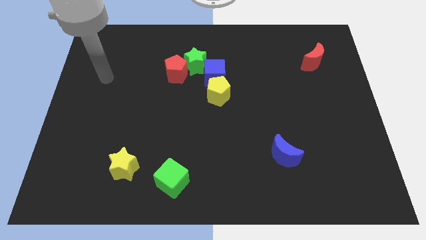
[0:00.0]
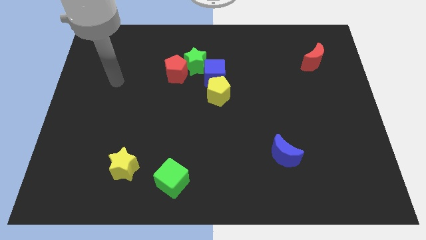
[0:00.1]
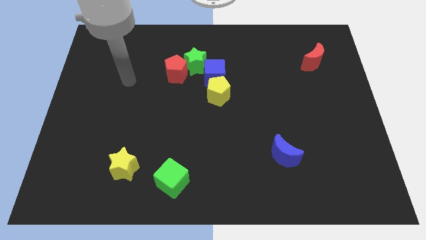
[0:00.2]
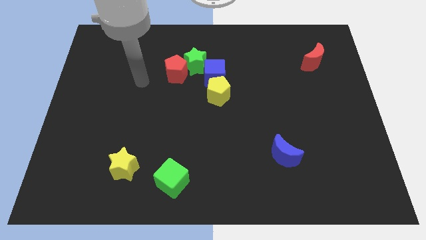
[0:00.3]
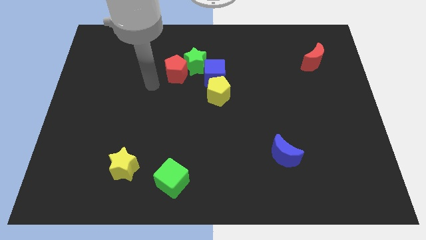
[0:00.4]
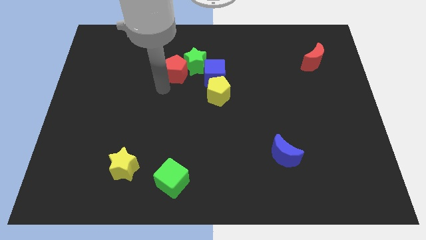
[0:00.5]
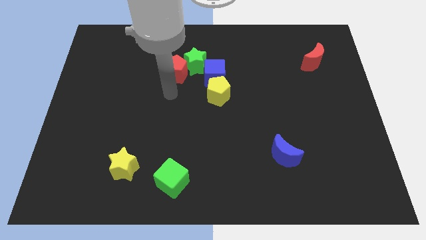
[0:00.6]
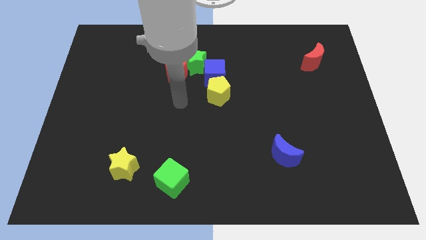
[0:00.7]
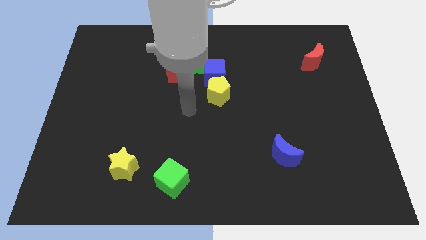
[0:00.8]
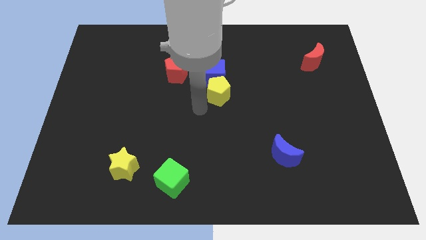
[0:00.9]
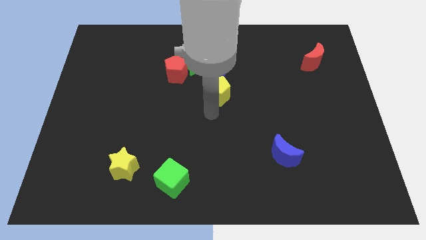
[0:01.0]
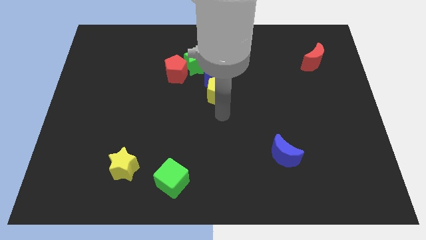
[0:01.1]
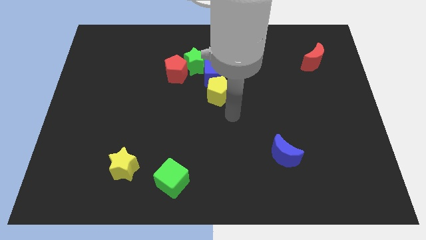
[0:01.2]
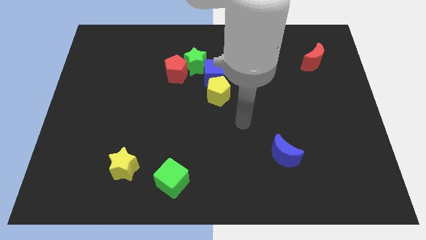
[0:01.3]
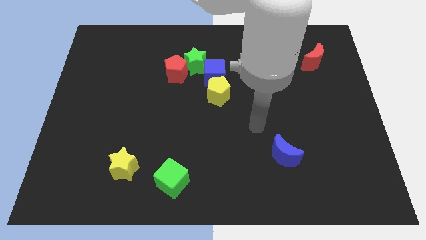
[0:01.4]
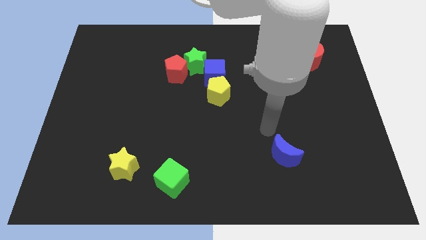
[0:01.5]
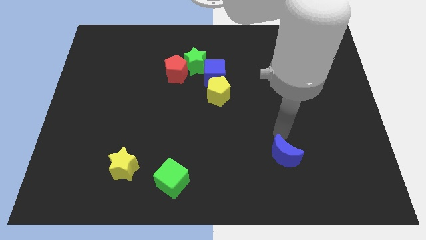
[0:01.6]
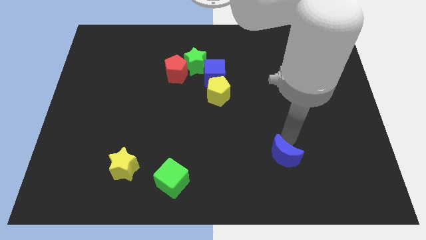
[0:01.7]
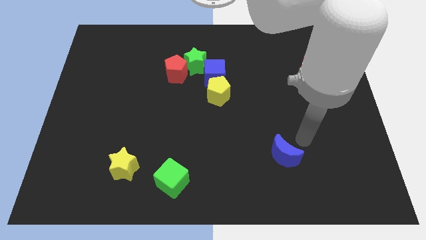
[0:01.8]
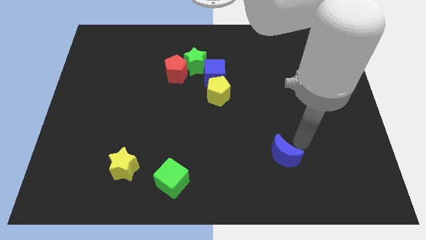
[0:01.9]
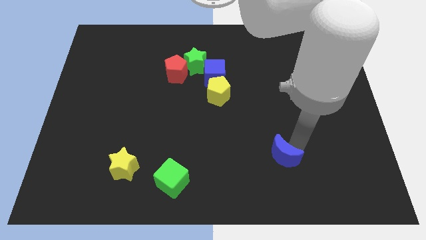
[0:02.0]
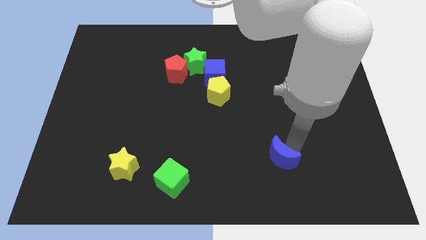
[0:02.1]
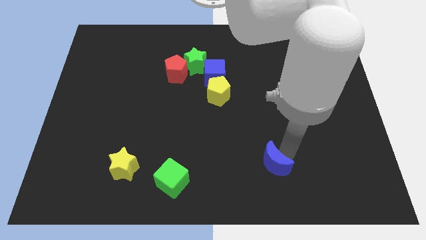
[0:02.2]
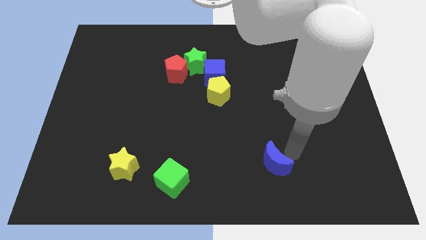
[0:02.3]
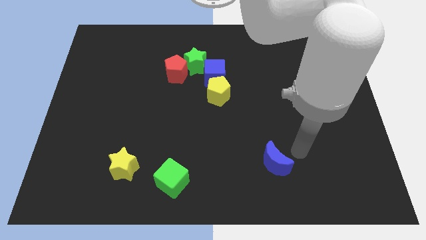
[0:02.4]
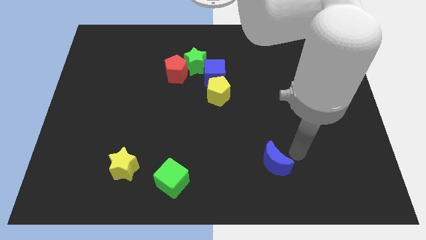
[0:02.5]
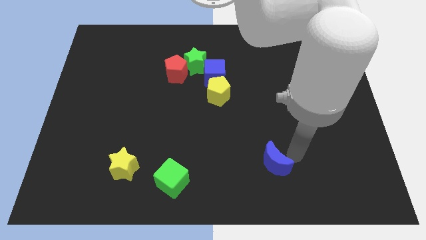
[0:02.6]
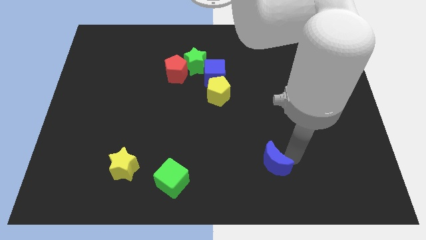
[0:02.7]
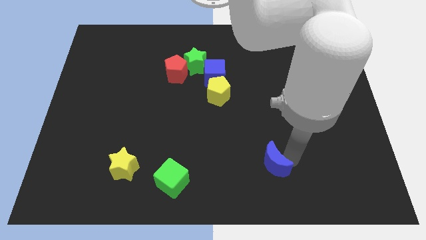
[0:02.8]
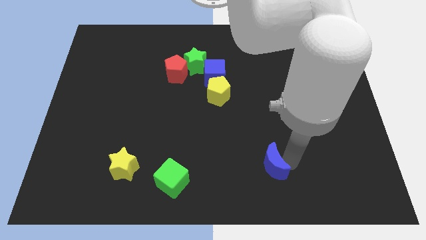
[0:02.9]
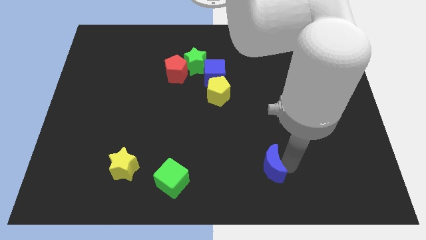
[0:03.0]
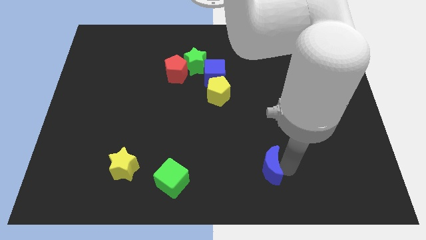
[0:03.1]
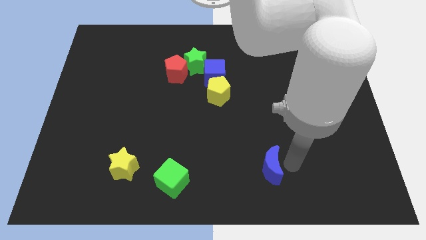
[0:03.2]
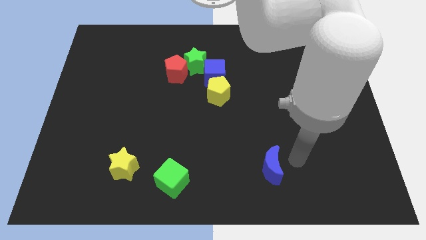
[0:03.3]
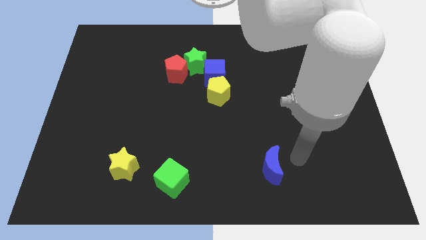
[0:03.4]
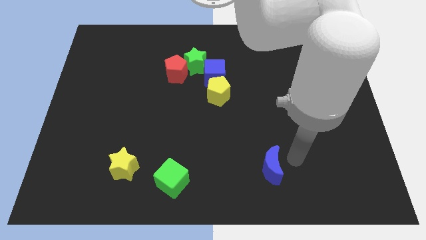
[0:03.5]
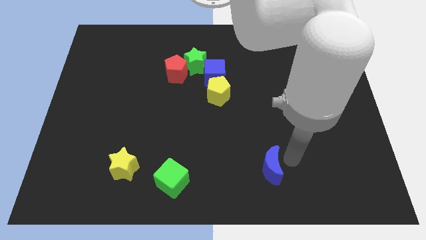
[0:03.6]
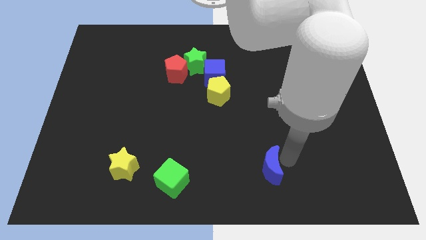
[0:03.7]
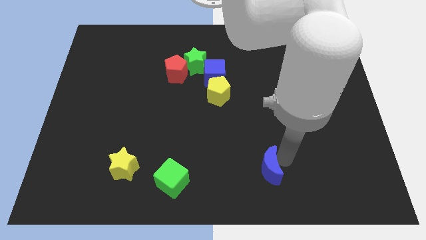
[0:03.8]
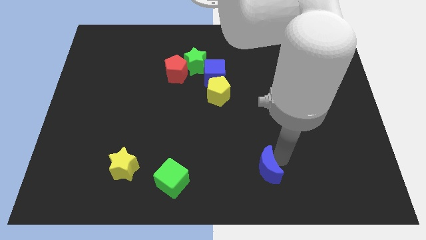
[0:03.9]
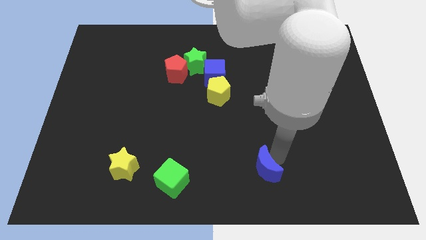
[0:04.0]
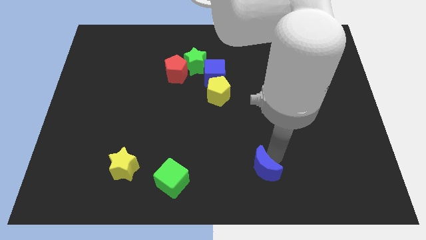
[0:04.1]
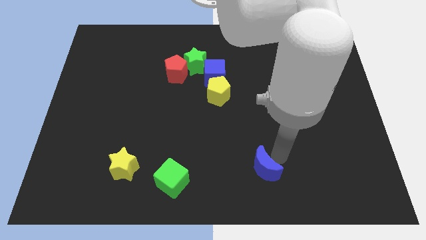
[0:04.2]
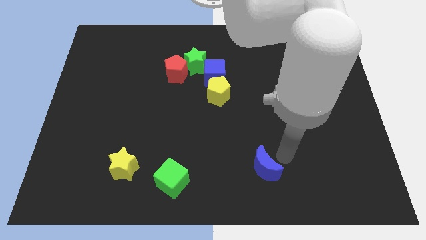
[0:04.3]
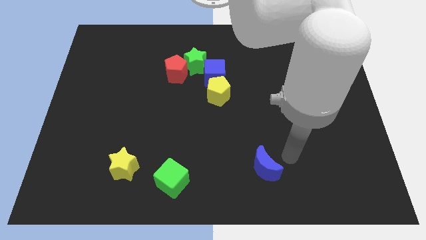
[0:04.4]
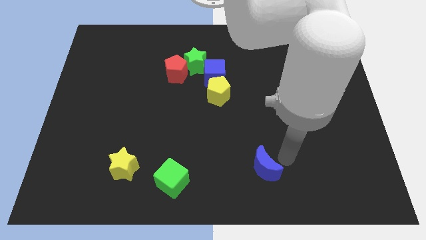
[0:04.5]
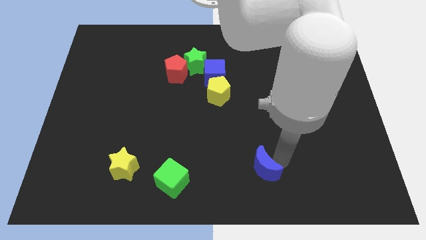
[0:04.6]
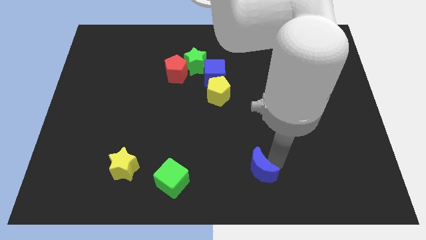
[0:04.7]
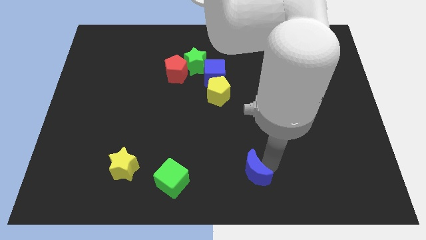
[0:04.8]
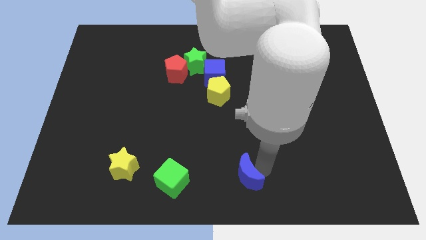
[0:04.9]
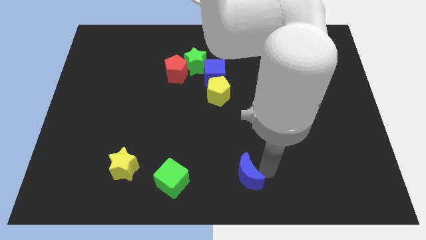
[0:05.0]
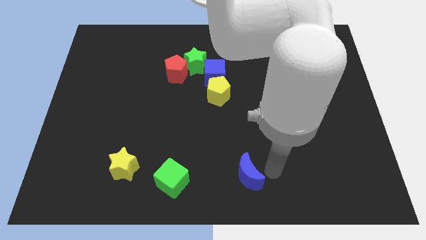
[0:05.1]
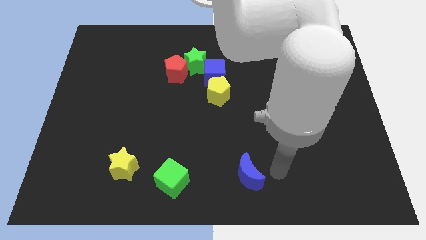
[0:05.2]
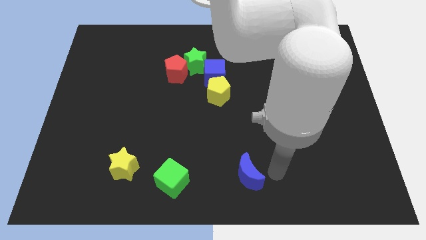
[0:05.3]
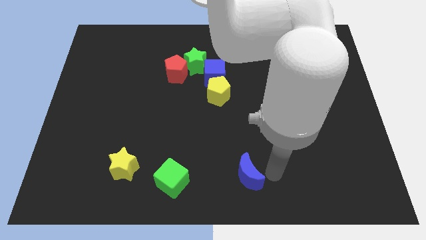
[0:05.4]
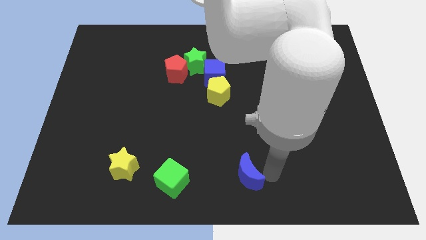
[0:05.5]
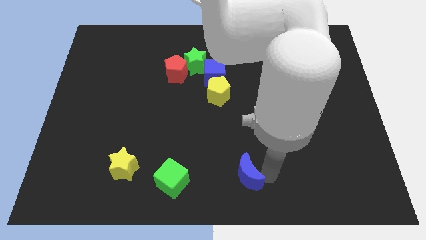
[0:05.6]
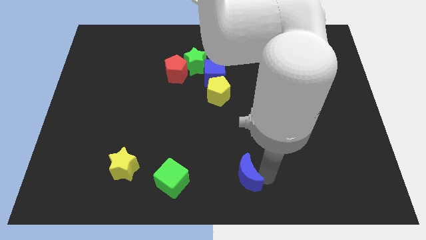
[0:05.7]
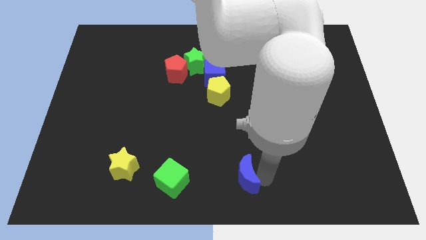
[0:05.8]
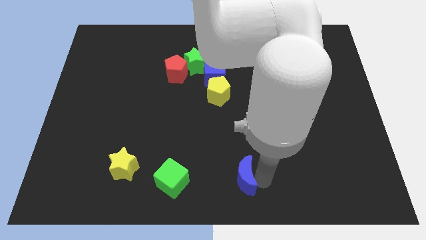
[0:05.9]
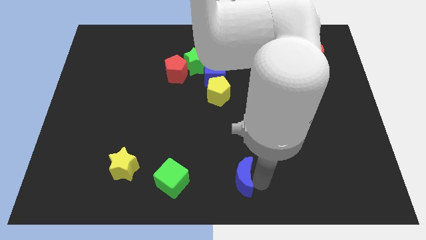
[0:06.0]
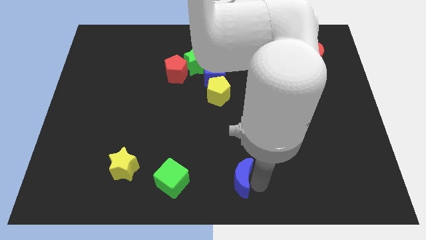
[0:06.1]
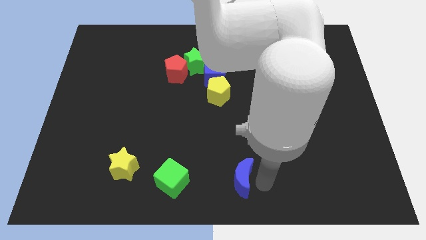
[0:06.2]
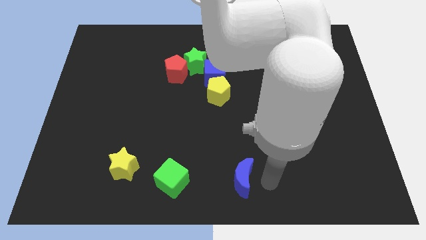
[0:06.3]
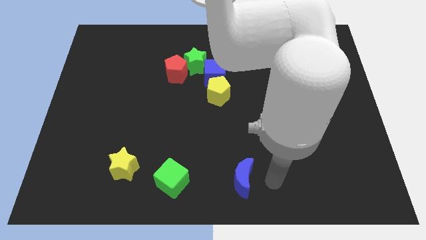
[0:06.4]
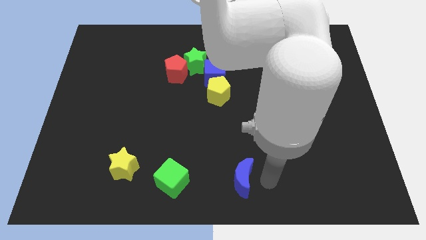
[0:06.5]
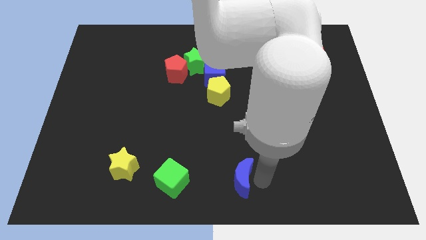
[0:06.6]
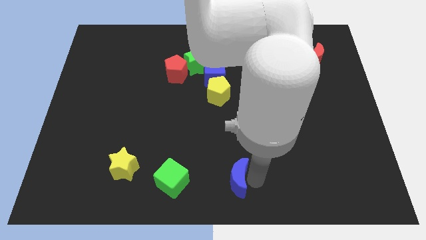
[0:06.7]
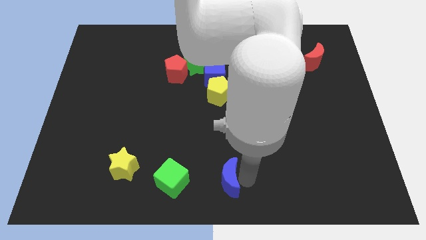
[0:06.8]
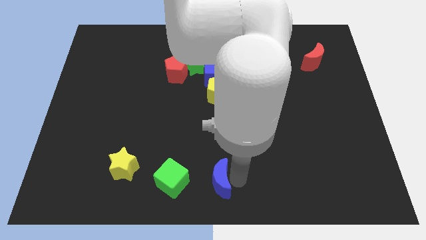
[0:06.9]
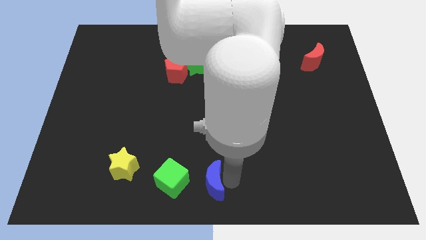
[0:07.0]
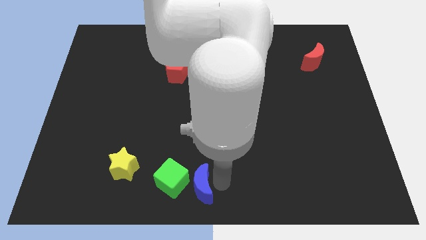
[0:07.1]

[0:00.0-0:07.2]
slide the blue moon next to the green cube
